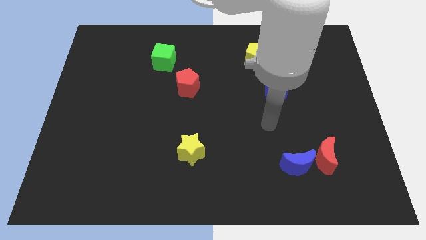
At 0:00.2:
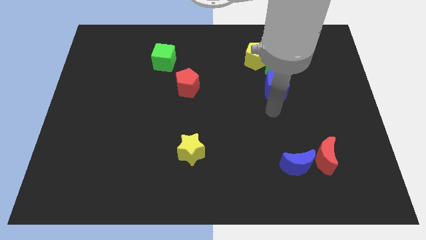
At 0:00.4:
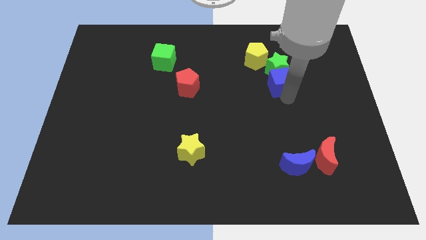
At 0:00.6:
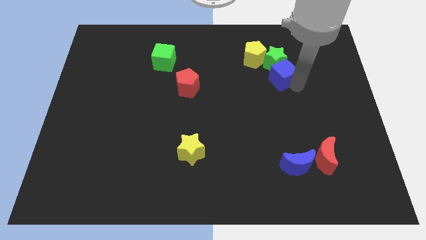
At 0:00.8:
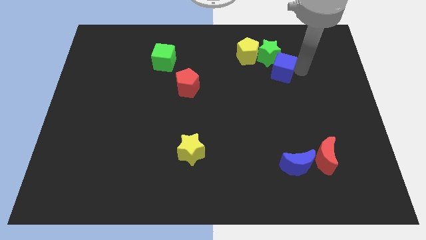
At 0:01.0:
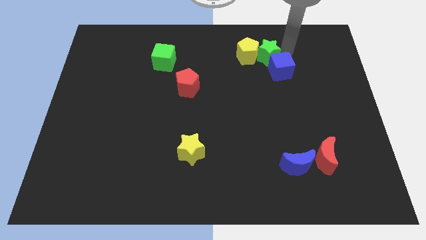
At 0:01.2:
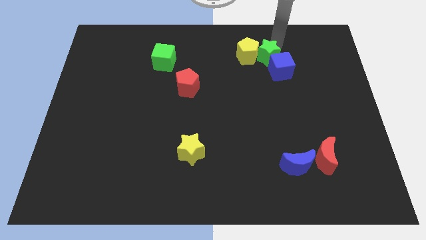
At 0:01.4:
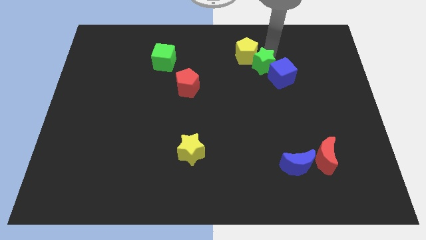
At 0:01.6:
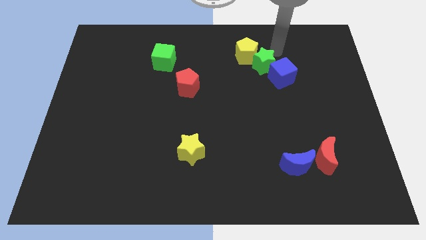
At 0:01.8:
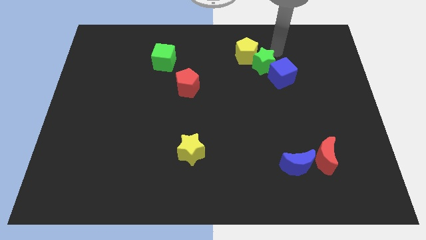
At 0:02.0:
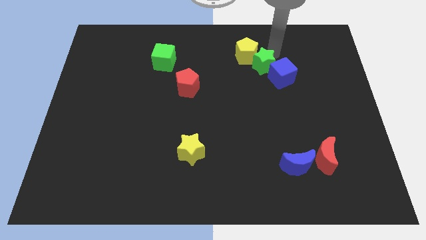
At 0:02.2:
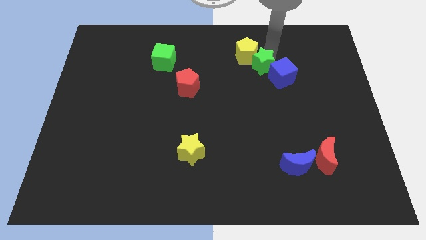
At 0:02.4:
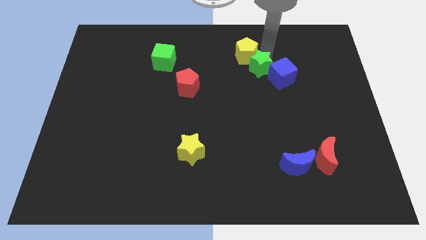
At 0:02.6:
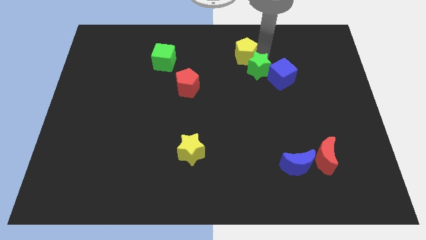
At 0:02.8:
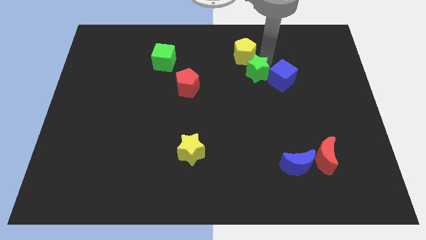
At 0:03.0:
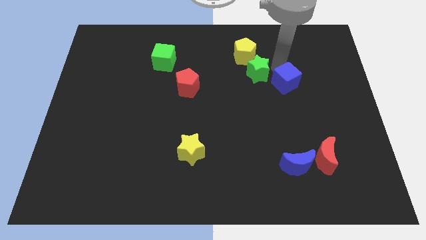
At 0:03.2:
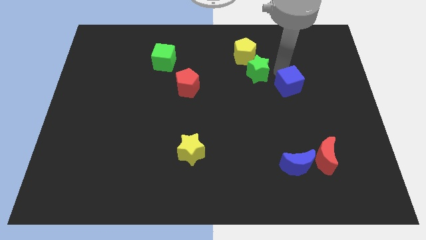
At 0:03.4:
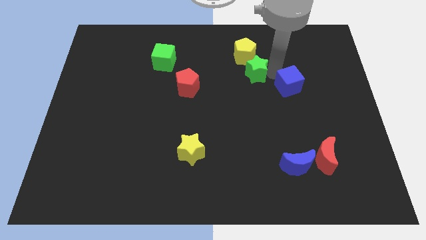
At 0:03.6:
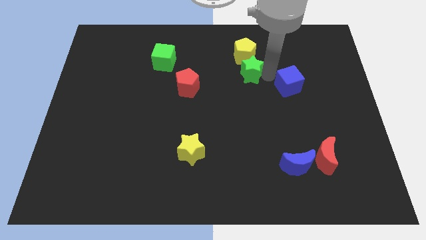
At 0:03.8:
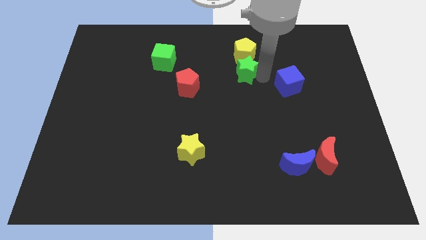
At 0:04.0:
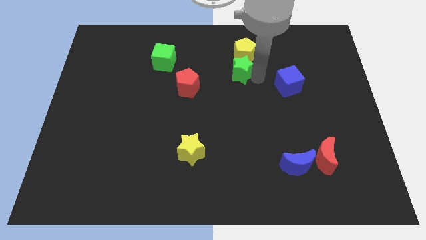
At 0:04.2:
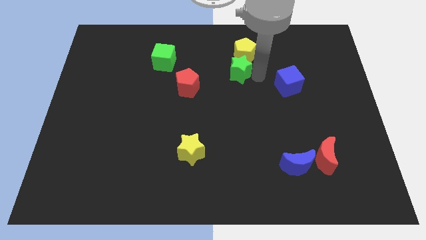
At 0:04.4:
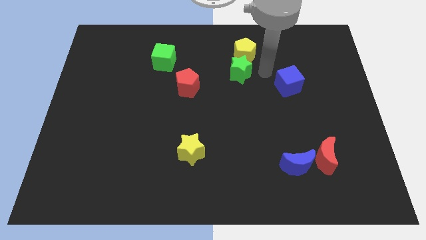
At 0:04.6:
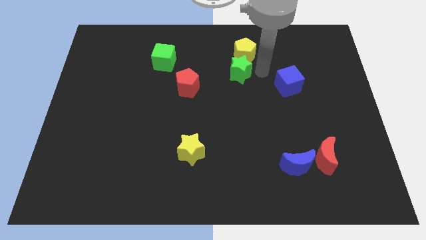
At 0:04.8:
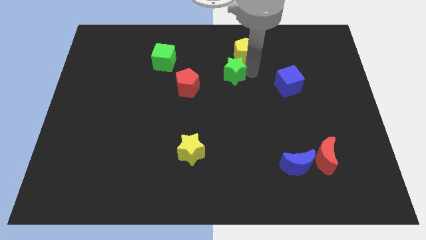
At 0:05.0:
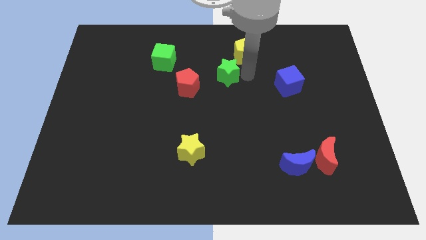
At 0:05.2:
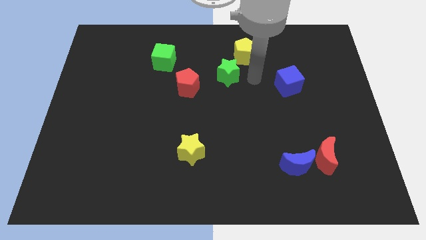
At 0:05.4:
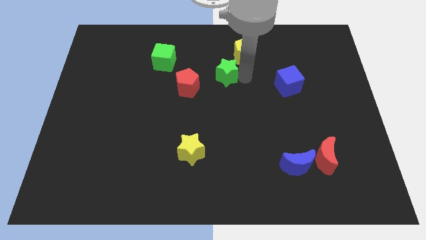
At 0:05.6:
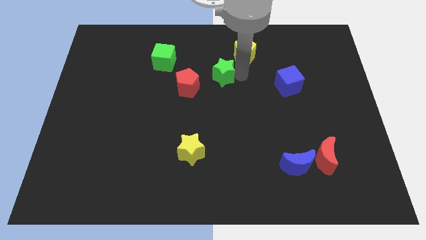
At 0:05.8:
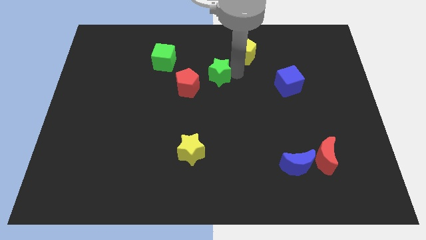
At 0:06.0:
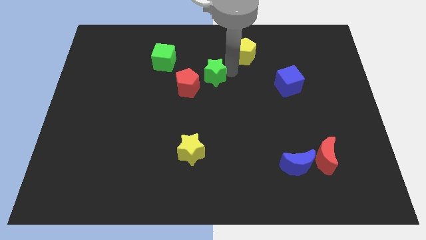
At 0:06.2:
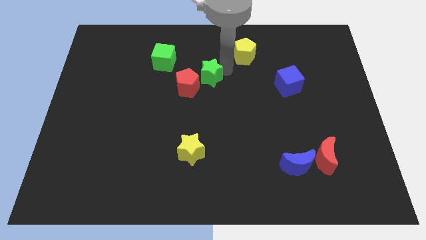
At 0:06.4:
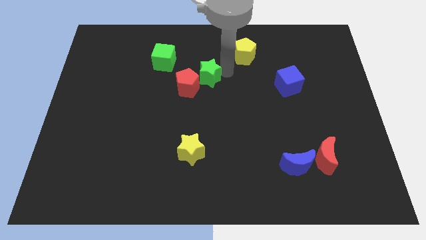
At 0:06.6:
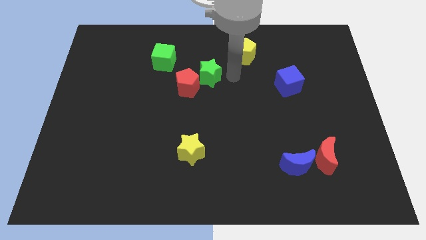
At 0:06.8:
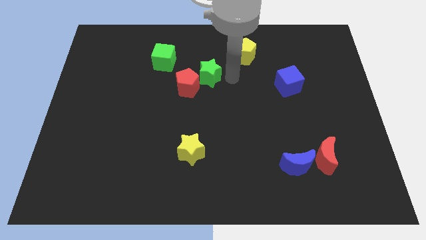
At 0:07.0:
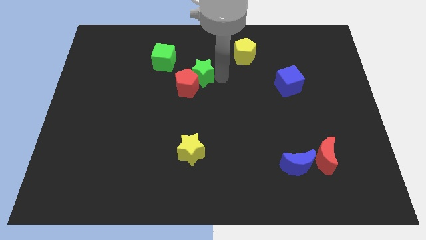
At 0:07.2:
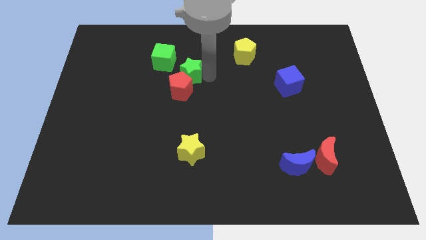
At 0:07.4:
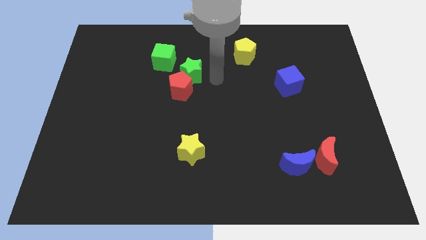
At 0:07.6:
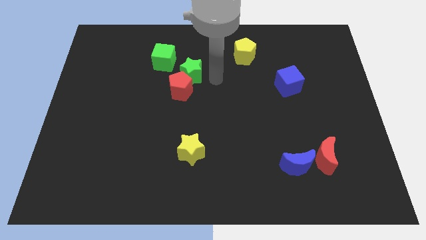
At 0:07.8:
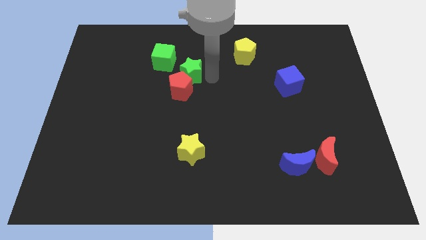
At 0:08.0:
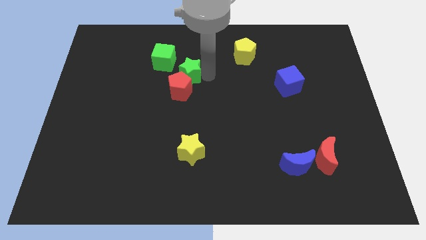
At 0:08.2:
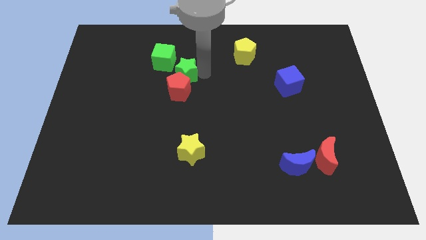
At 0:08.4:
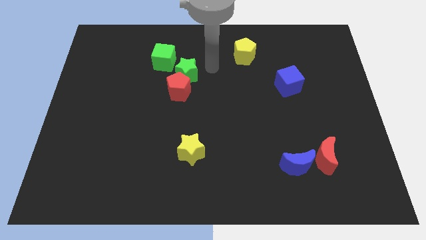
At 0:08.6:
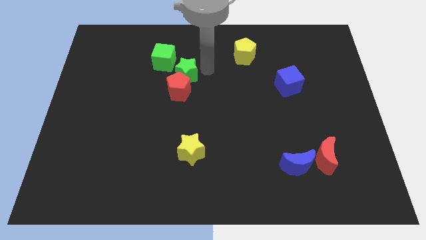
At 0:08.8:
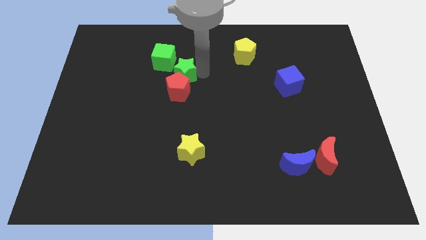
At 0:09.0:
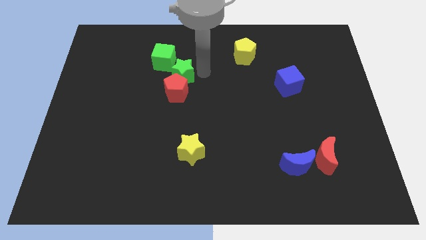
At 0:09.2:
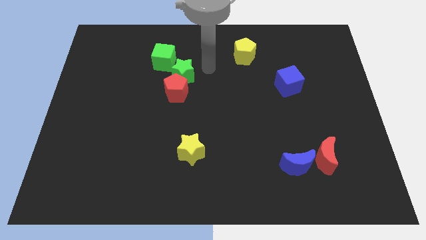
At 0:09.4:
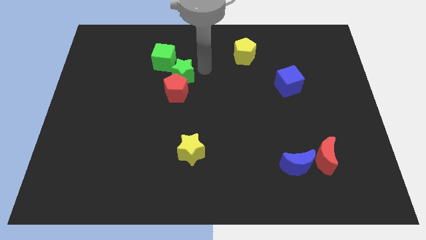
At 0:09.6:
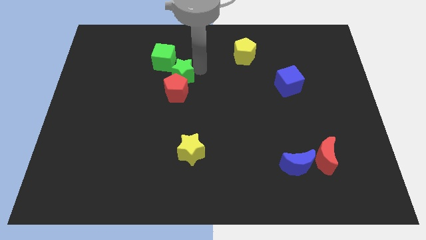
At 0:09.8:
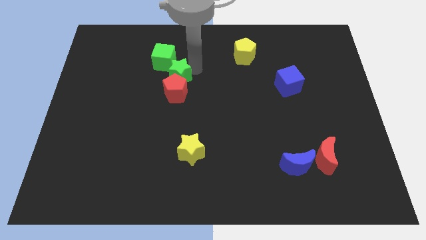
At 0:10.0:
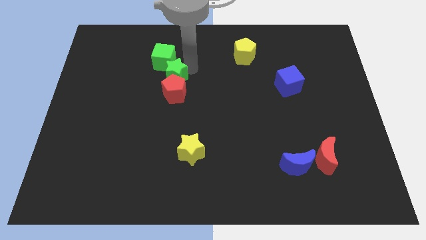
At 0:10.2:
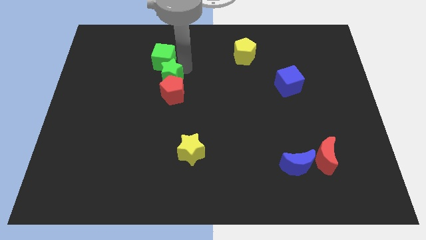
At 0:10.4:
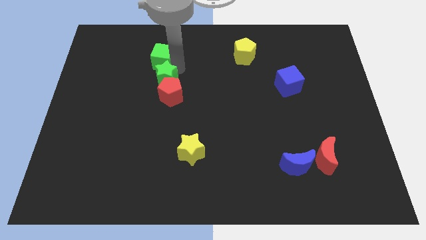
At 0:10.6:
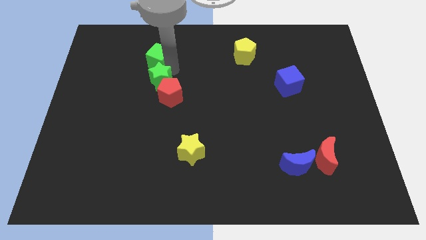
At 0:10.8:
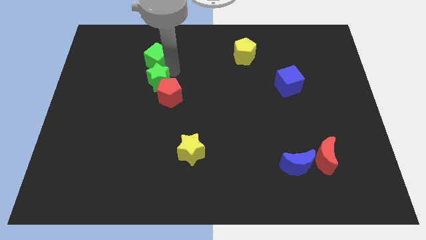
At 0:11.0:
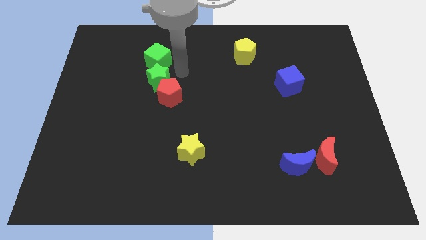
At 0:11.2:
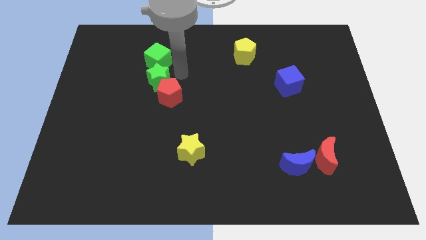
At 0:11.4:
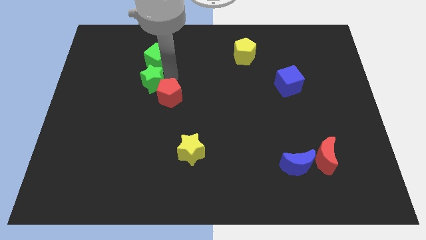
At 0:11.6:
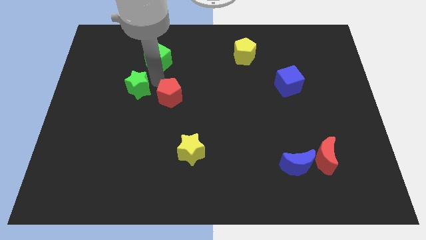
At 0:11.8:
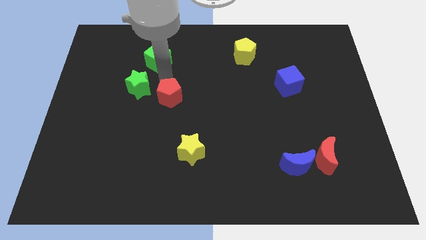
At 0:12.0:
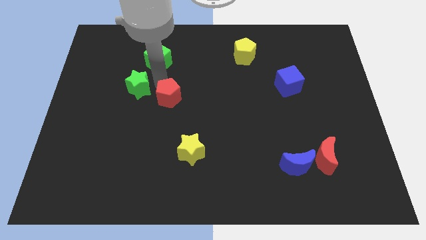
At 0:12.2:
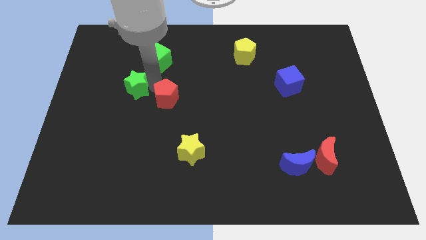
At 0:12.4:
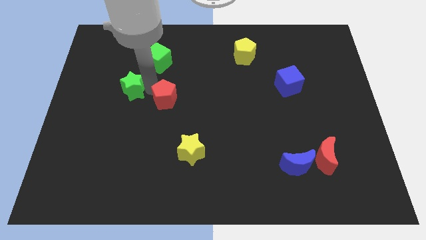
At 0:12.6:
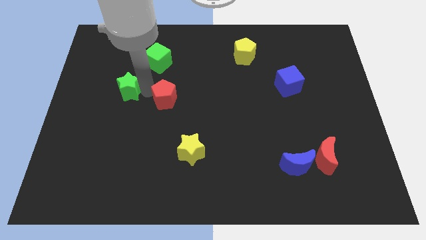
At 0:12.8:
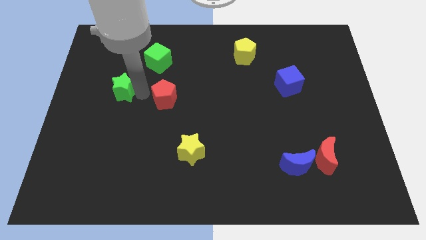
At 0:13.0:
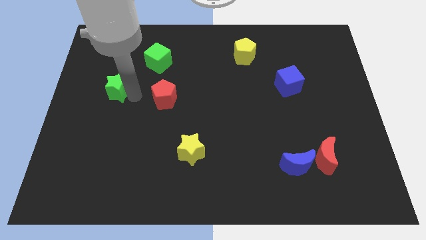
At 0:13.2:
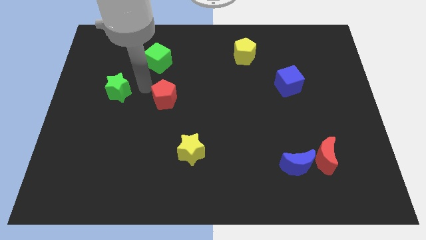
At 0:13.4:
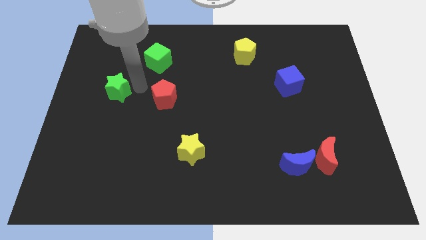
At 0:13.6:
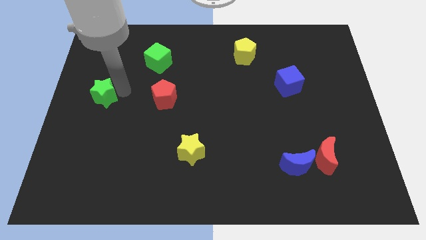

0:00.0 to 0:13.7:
push the green star to the left side of the board
